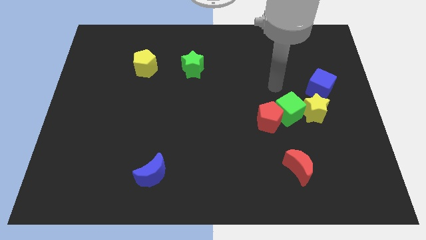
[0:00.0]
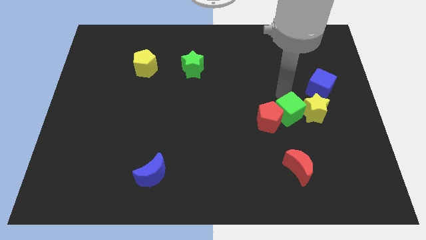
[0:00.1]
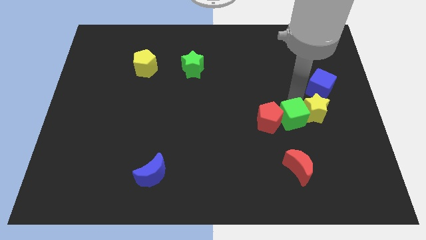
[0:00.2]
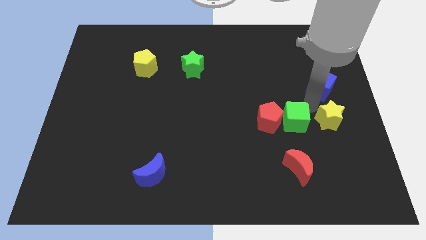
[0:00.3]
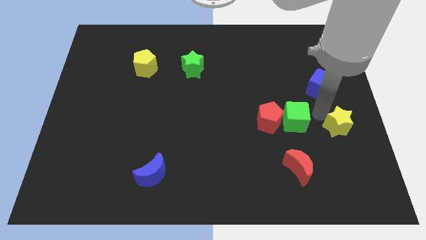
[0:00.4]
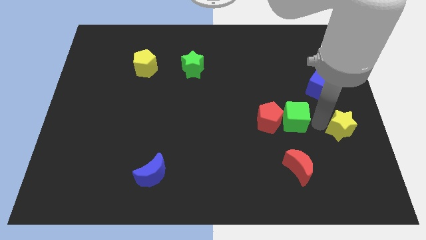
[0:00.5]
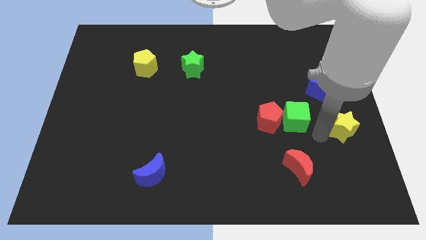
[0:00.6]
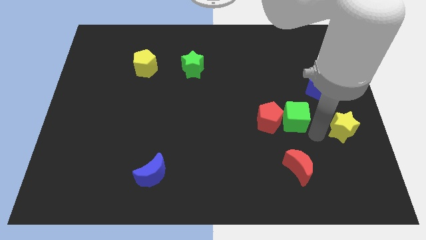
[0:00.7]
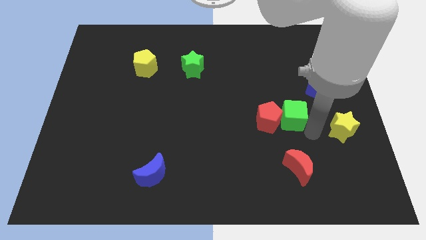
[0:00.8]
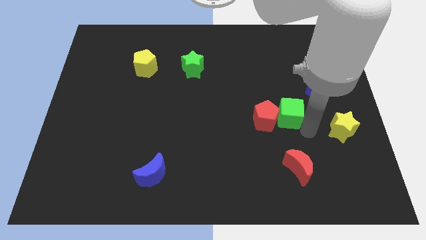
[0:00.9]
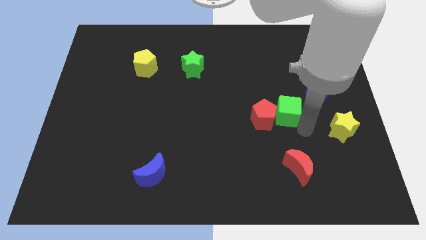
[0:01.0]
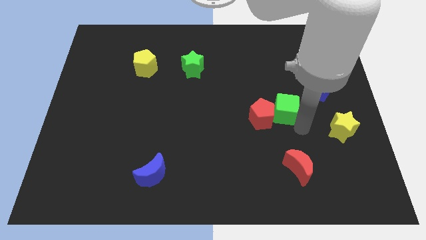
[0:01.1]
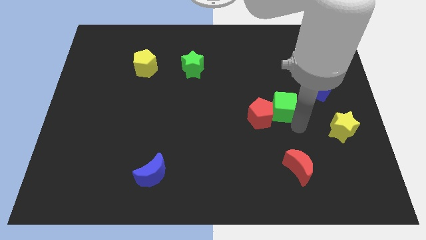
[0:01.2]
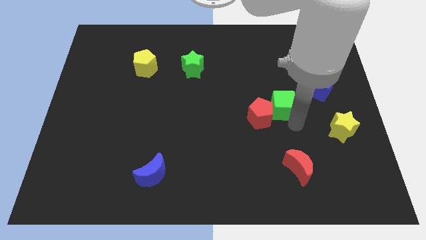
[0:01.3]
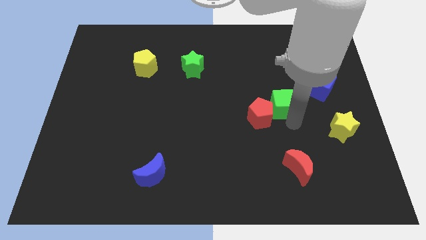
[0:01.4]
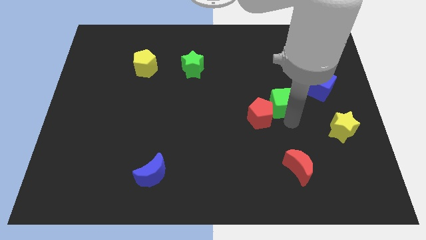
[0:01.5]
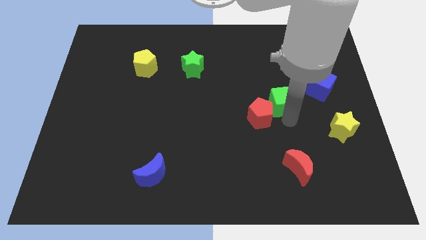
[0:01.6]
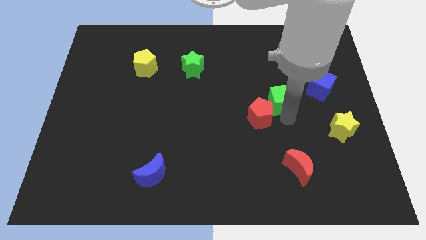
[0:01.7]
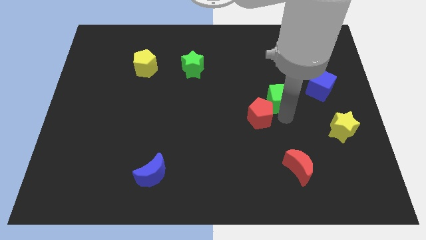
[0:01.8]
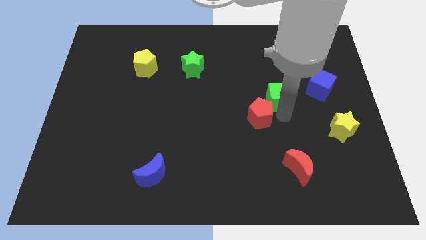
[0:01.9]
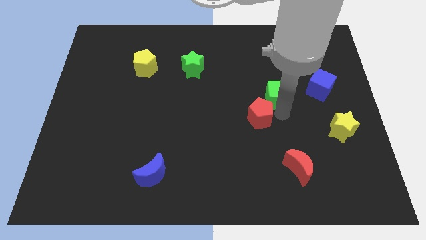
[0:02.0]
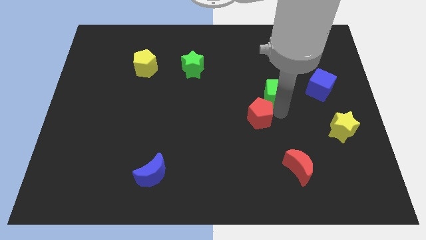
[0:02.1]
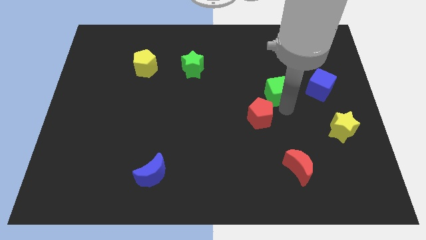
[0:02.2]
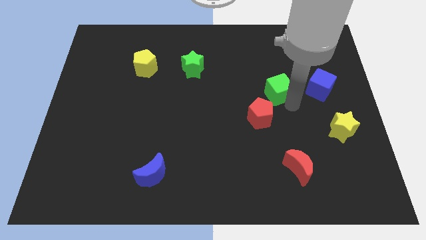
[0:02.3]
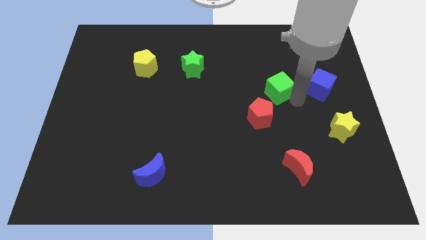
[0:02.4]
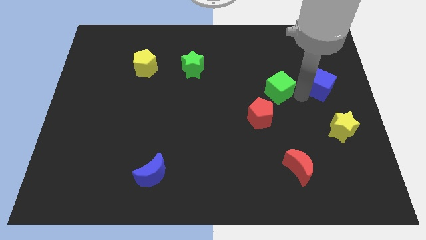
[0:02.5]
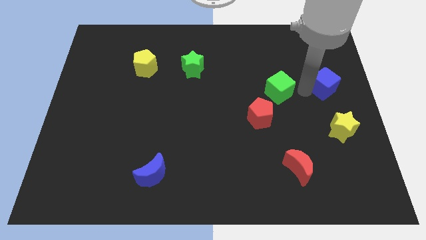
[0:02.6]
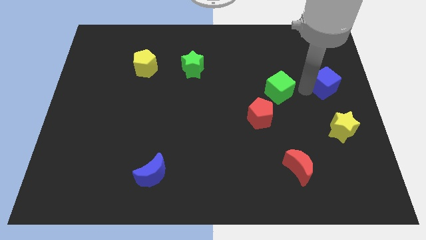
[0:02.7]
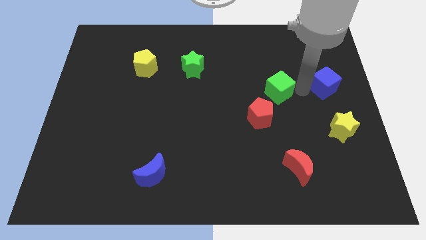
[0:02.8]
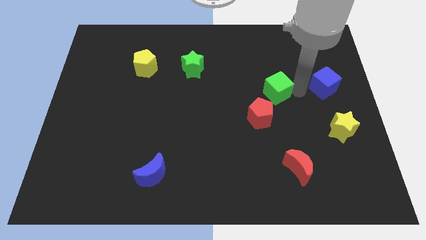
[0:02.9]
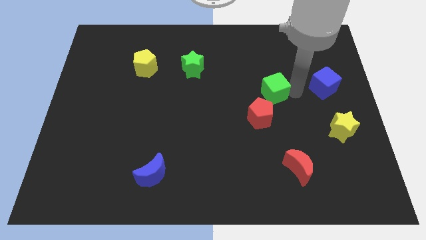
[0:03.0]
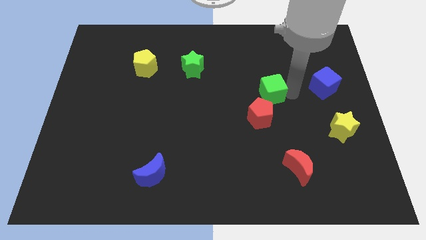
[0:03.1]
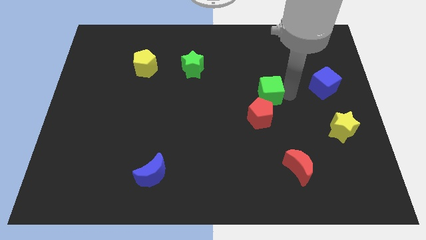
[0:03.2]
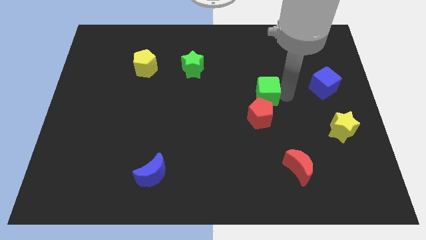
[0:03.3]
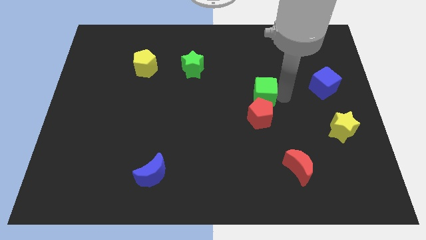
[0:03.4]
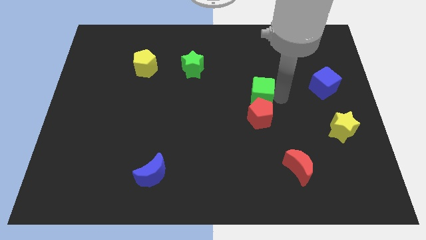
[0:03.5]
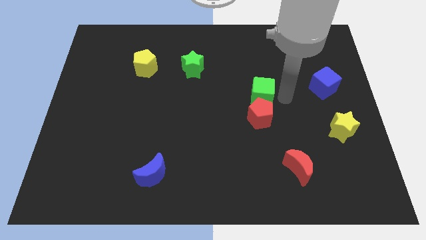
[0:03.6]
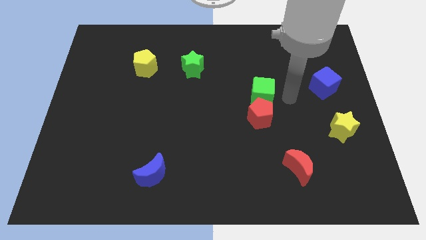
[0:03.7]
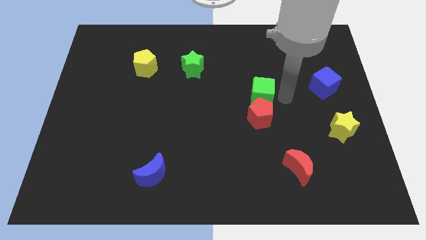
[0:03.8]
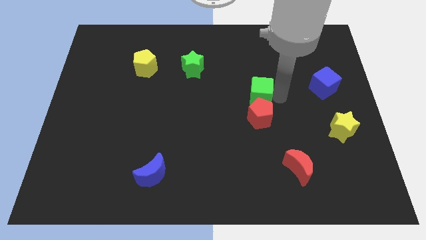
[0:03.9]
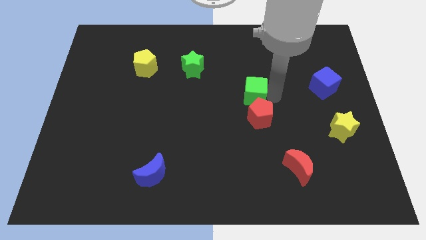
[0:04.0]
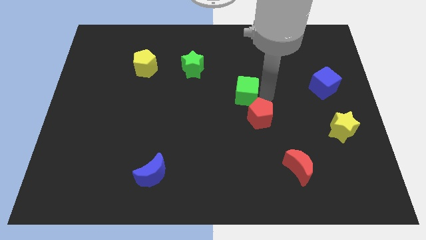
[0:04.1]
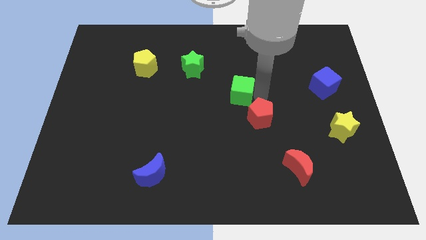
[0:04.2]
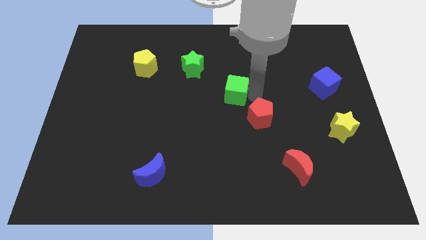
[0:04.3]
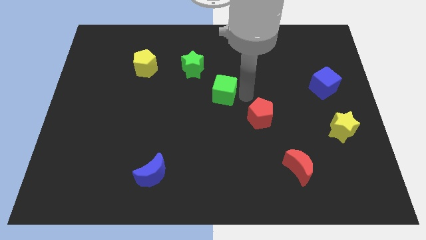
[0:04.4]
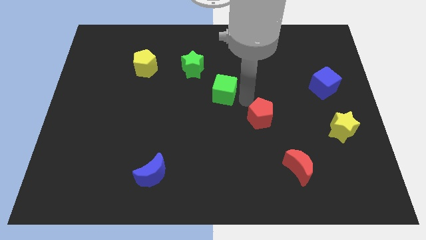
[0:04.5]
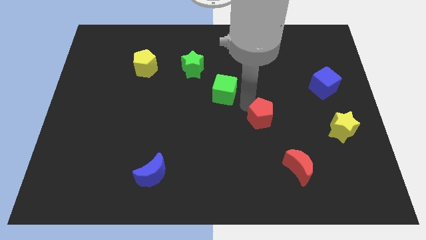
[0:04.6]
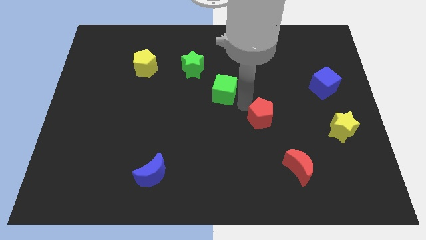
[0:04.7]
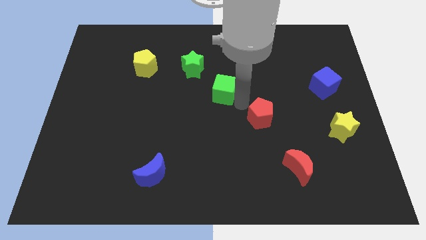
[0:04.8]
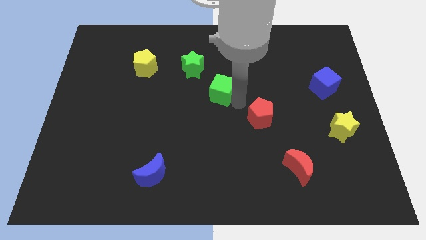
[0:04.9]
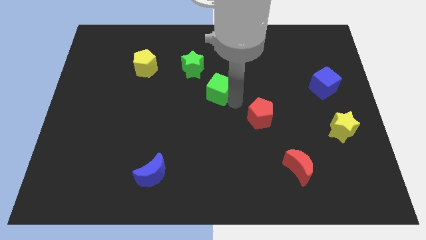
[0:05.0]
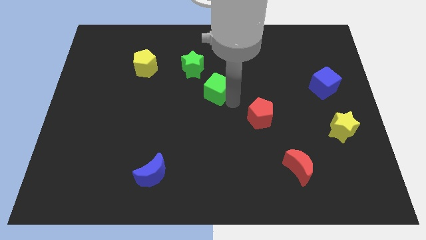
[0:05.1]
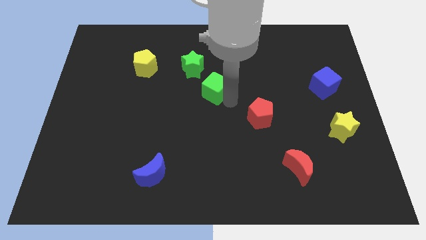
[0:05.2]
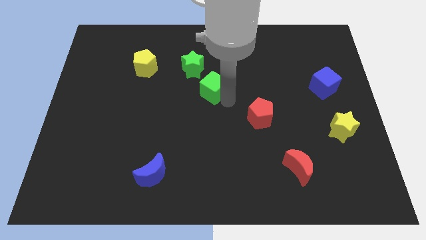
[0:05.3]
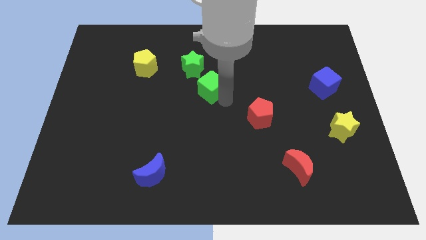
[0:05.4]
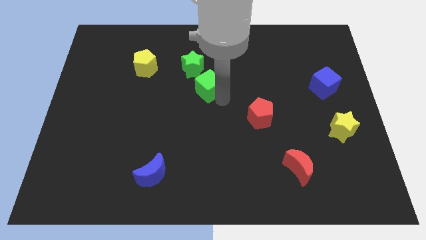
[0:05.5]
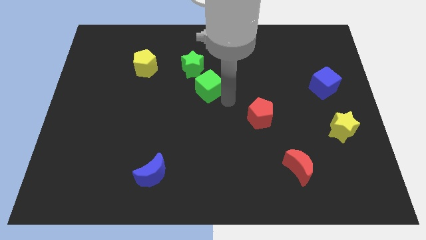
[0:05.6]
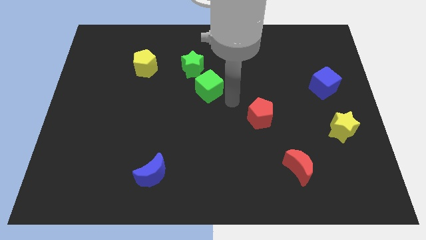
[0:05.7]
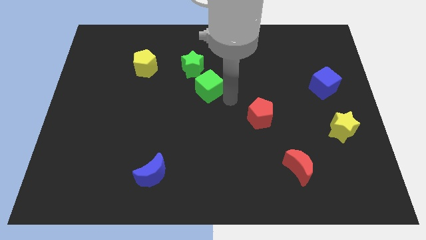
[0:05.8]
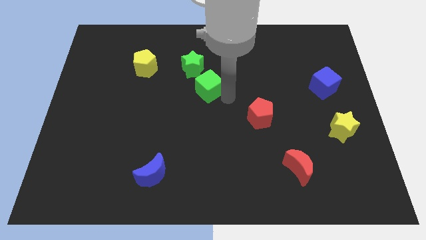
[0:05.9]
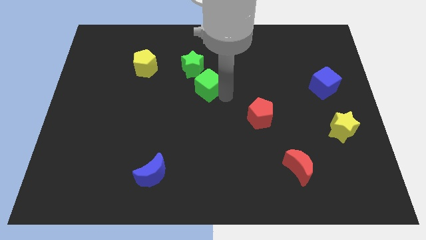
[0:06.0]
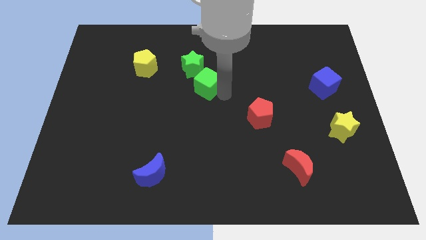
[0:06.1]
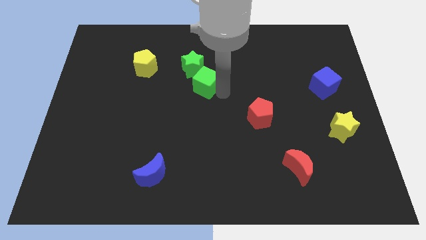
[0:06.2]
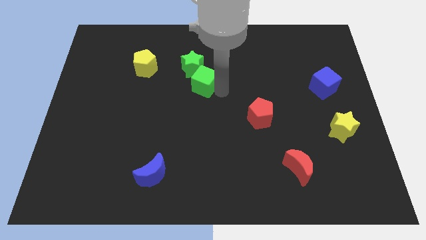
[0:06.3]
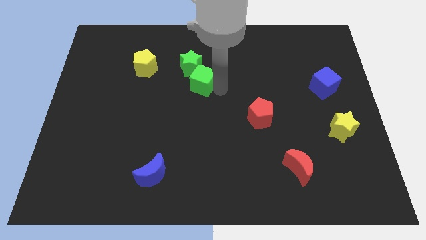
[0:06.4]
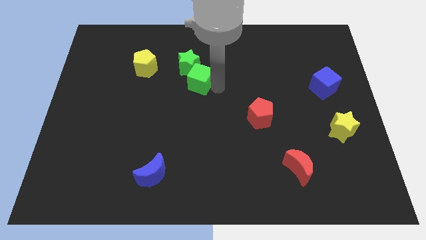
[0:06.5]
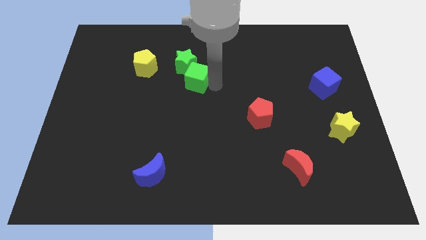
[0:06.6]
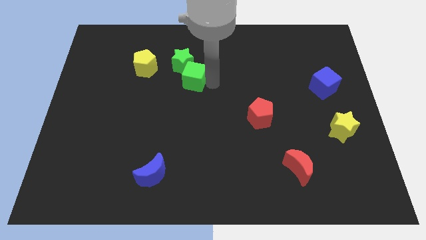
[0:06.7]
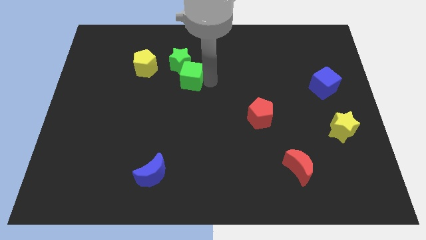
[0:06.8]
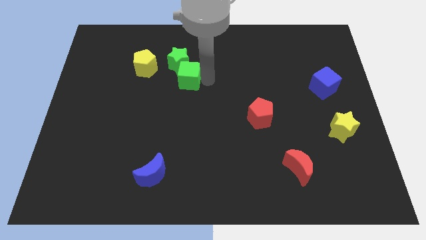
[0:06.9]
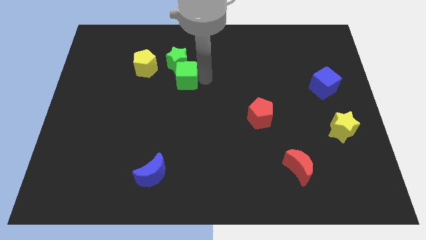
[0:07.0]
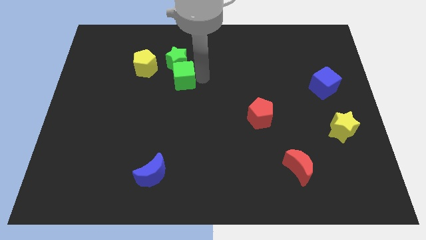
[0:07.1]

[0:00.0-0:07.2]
put the green cube to the bottom right of the yellow pentagon
